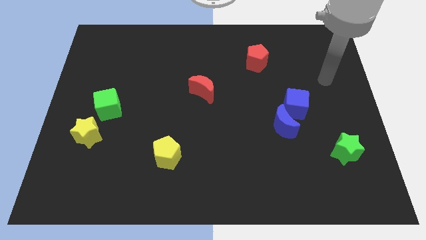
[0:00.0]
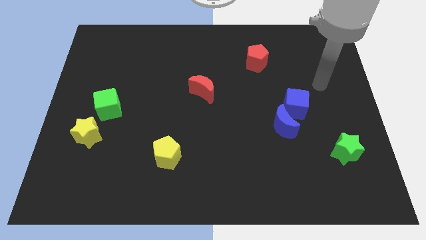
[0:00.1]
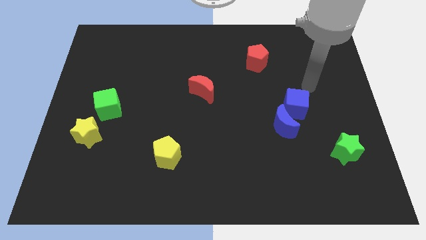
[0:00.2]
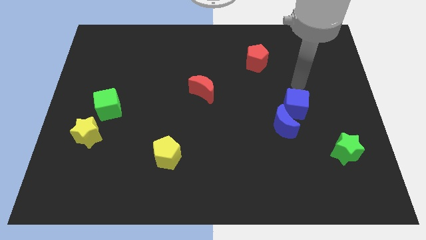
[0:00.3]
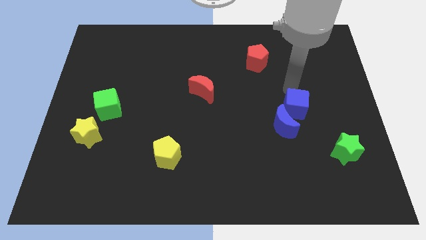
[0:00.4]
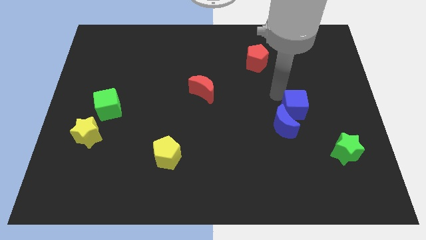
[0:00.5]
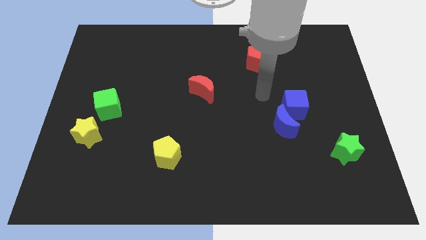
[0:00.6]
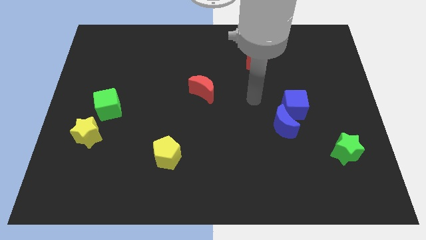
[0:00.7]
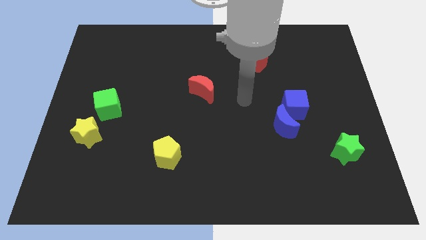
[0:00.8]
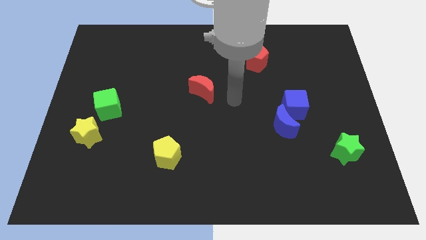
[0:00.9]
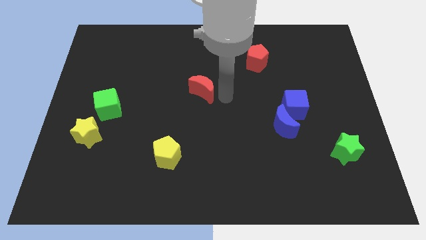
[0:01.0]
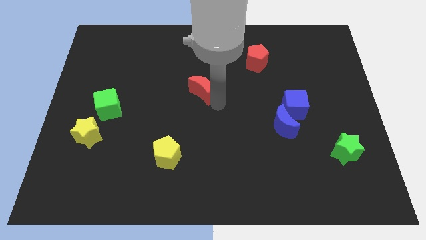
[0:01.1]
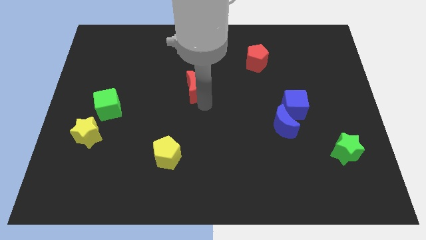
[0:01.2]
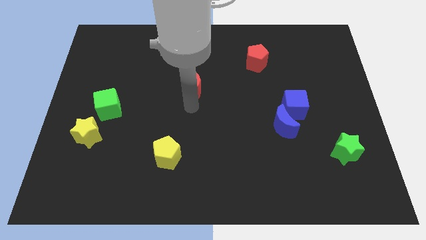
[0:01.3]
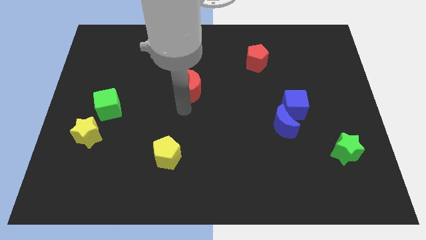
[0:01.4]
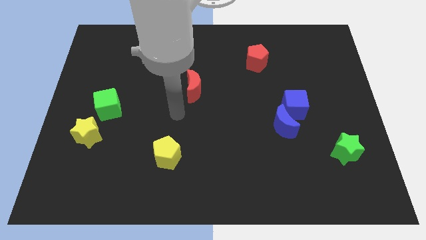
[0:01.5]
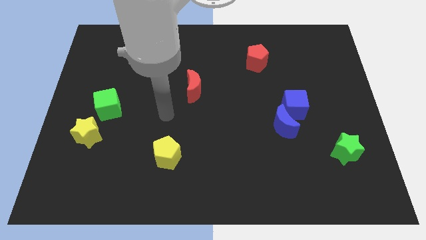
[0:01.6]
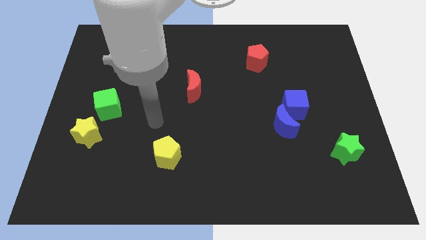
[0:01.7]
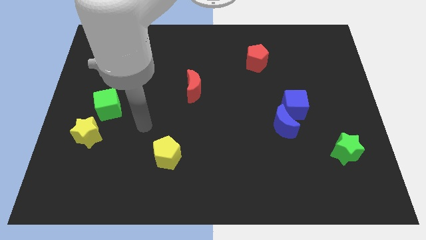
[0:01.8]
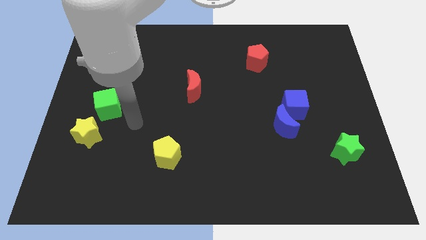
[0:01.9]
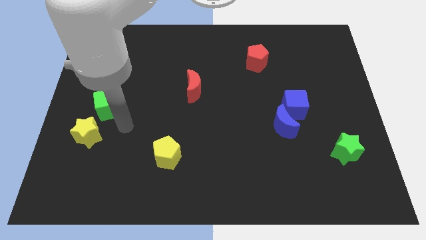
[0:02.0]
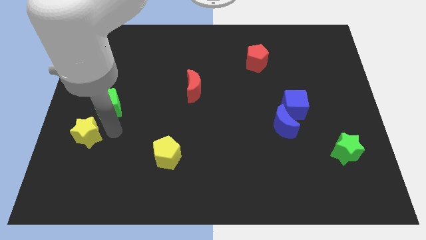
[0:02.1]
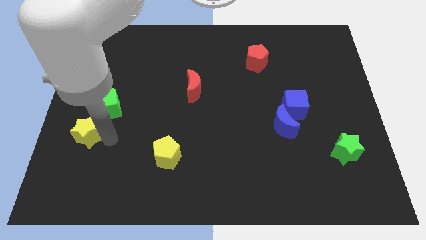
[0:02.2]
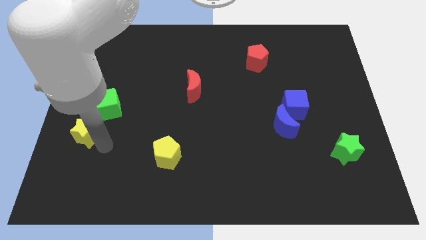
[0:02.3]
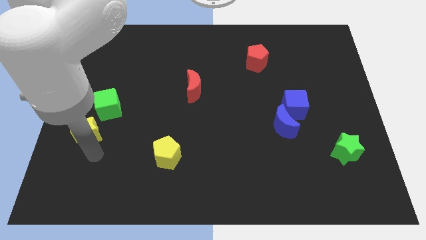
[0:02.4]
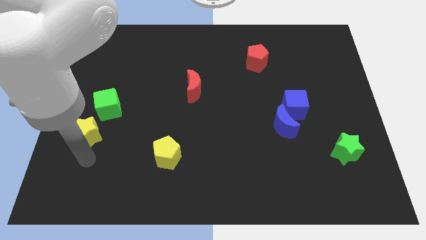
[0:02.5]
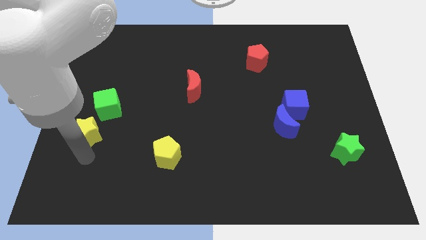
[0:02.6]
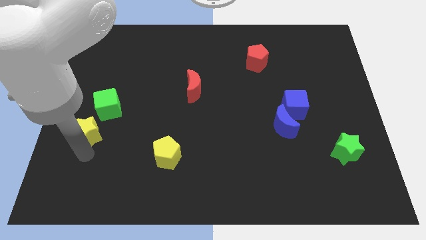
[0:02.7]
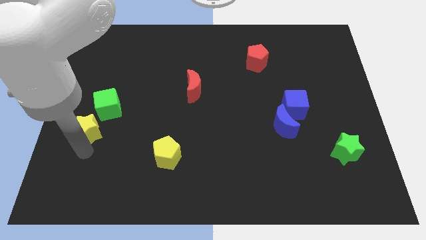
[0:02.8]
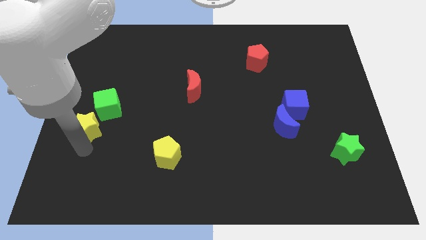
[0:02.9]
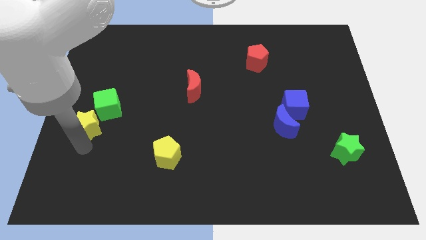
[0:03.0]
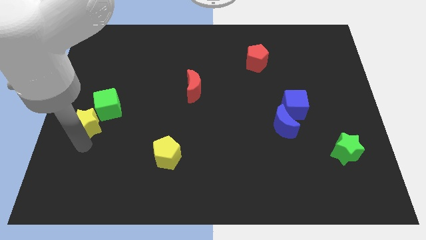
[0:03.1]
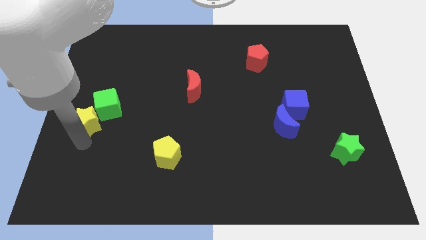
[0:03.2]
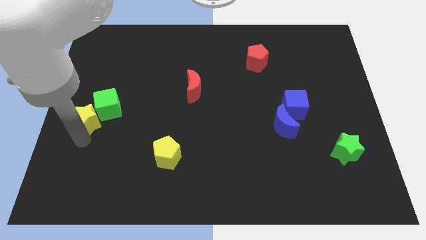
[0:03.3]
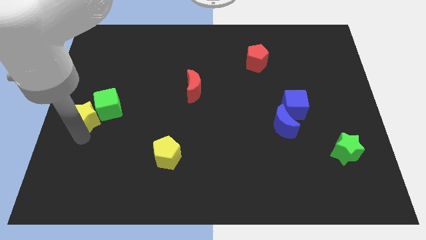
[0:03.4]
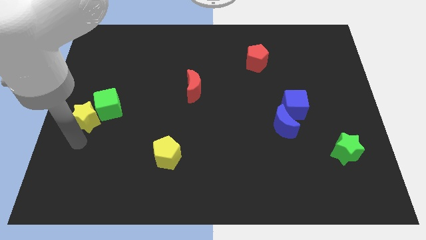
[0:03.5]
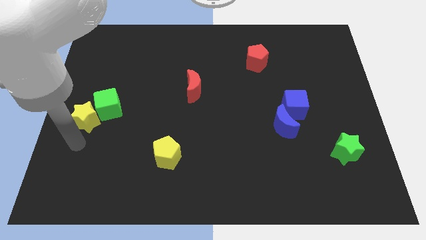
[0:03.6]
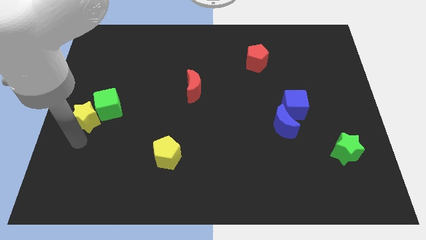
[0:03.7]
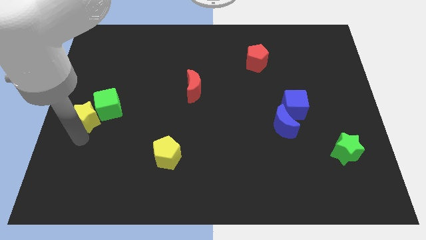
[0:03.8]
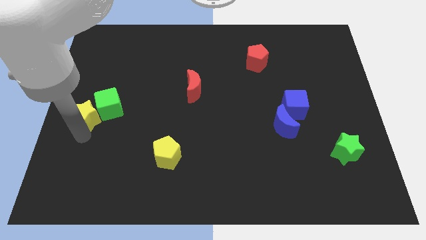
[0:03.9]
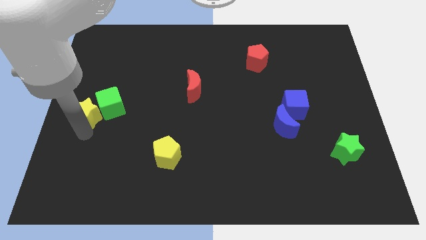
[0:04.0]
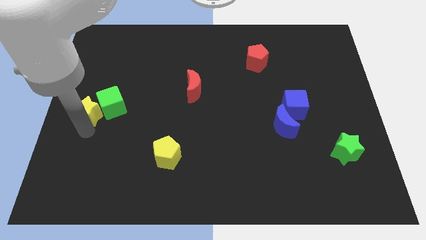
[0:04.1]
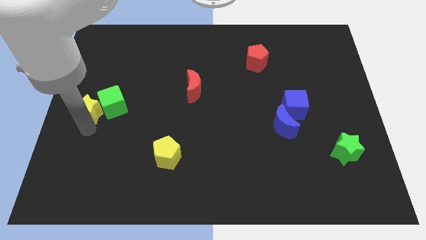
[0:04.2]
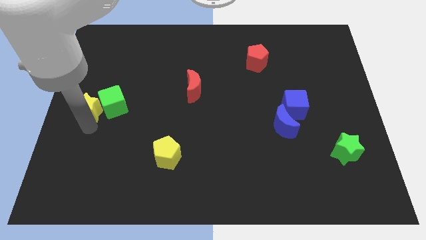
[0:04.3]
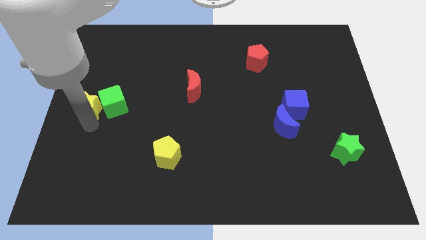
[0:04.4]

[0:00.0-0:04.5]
slightly move the yellow star upwards

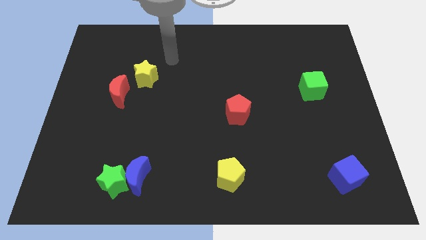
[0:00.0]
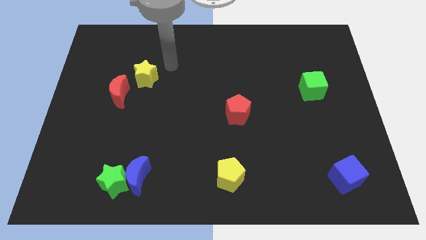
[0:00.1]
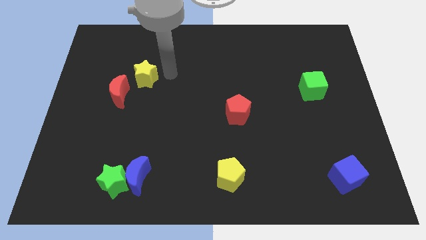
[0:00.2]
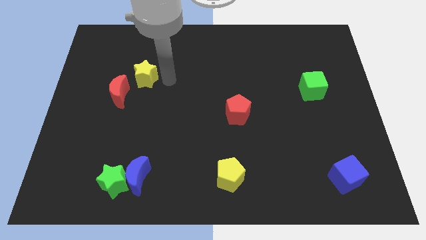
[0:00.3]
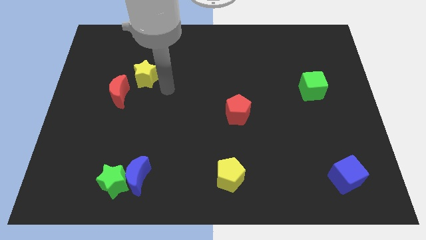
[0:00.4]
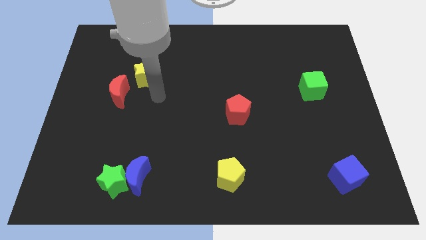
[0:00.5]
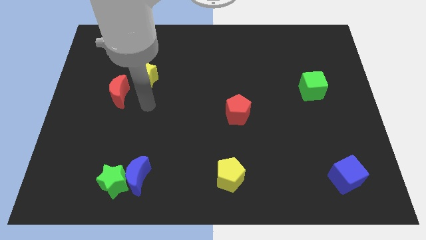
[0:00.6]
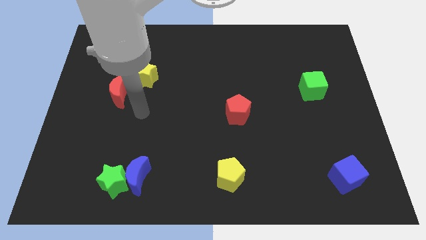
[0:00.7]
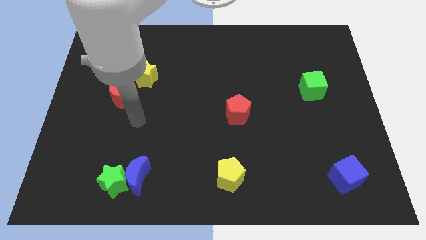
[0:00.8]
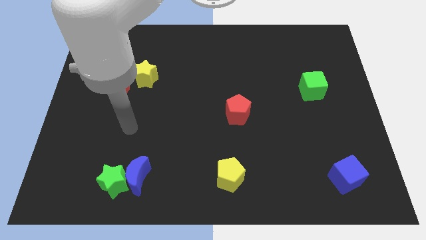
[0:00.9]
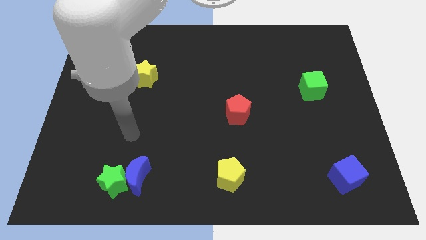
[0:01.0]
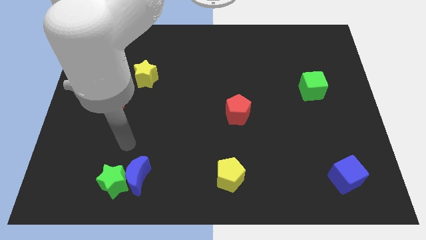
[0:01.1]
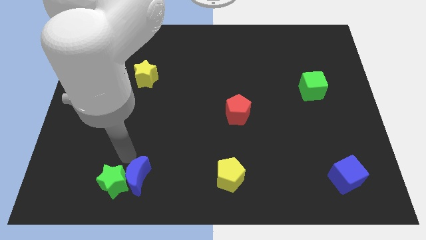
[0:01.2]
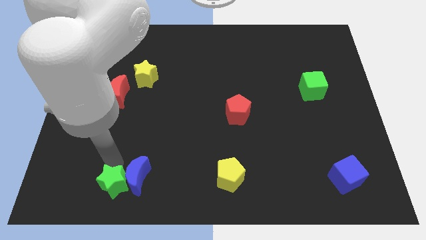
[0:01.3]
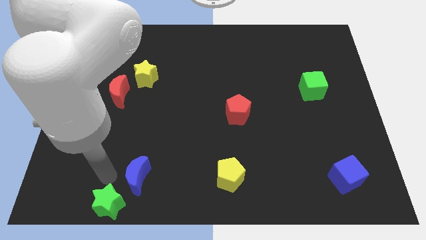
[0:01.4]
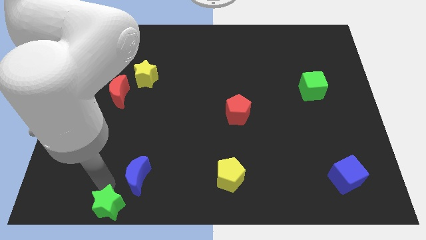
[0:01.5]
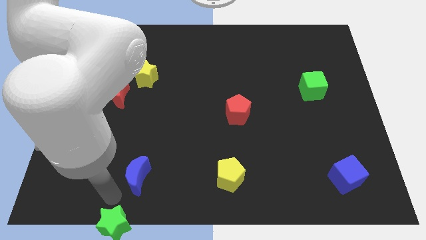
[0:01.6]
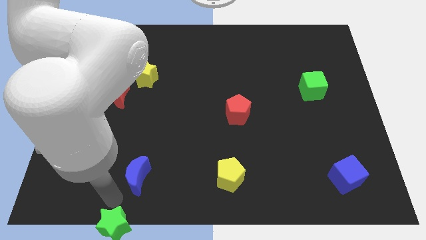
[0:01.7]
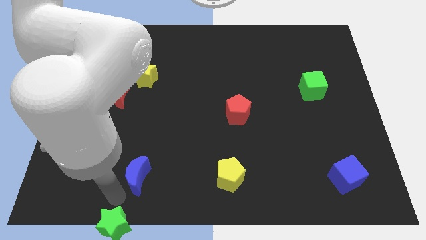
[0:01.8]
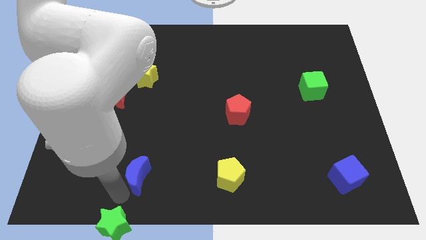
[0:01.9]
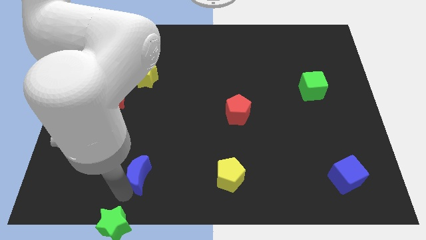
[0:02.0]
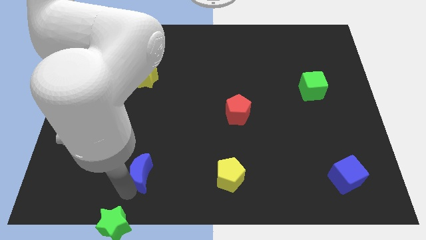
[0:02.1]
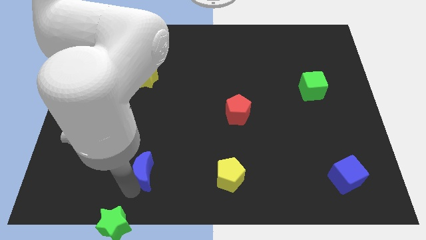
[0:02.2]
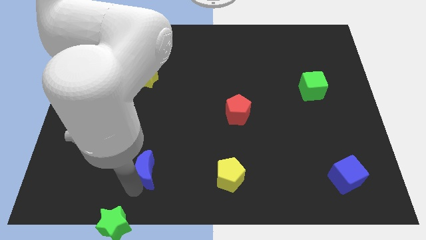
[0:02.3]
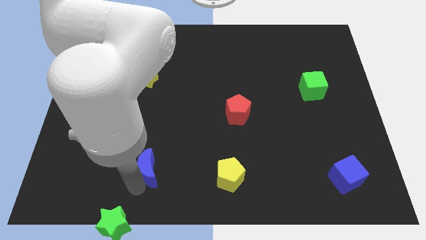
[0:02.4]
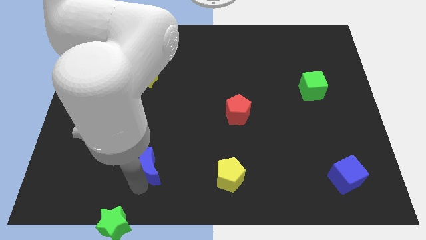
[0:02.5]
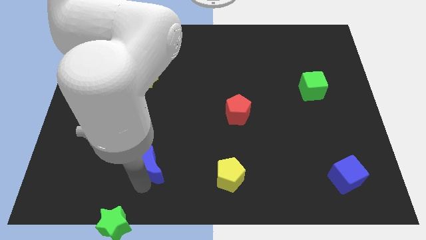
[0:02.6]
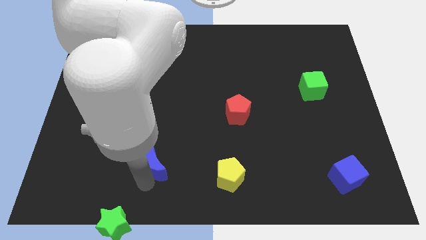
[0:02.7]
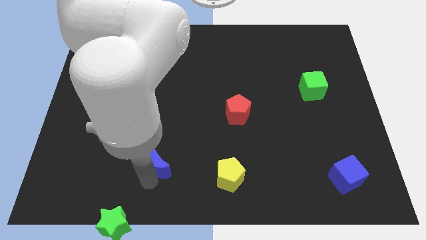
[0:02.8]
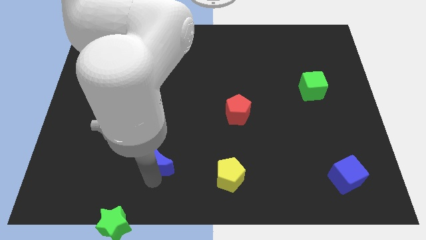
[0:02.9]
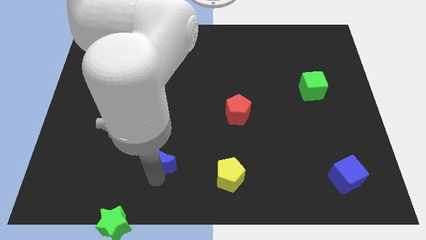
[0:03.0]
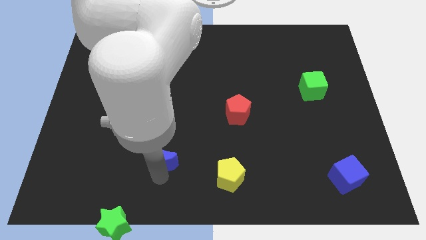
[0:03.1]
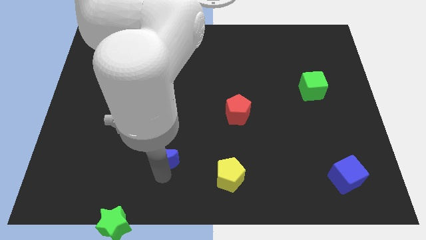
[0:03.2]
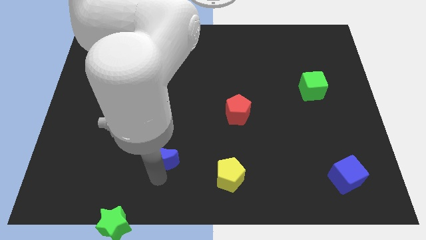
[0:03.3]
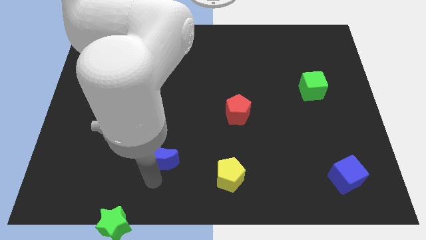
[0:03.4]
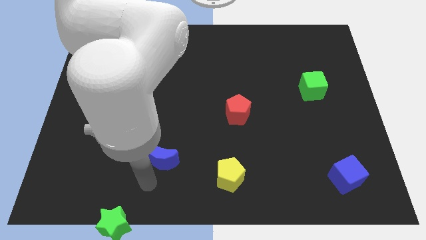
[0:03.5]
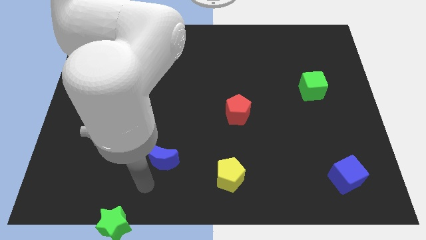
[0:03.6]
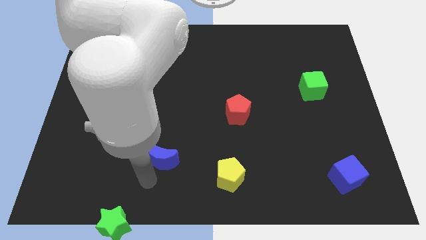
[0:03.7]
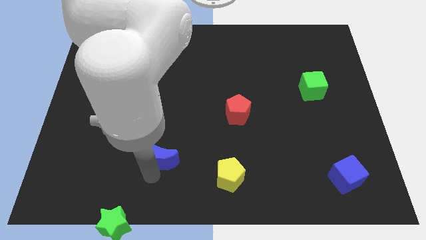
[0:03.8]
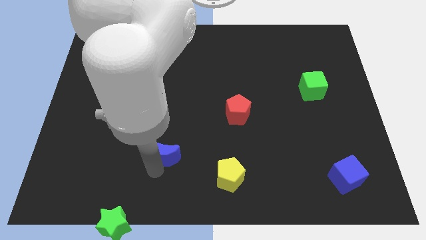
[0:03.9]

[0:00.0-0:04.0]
slightly move the blue moon up and right diagonally
